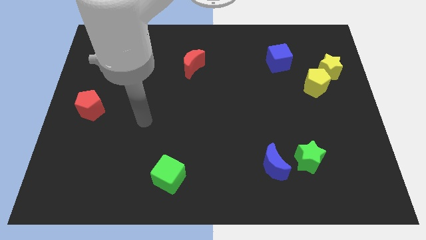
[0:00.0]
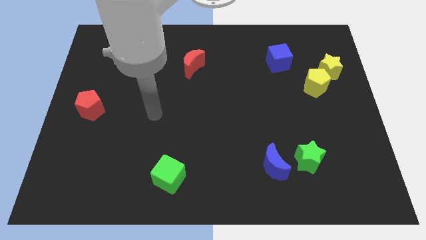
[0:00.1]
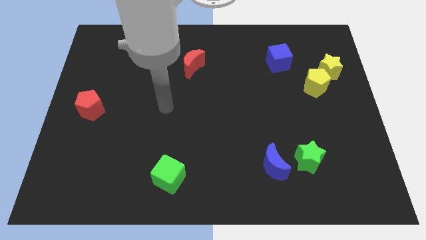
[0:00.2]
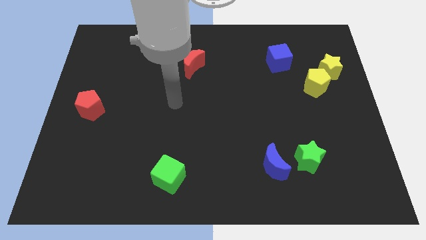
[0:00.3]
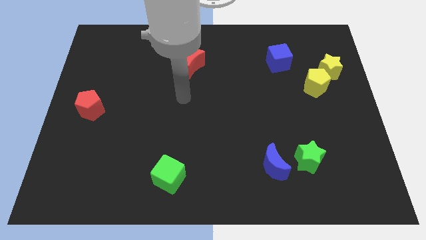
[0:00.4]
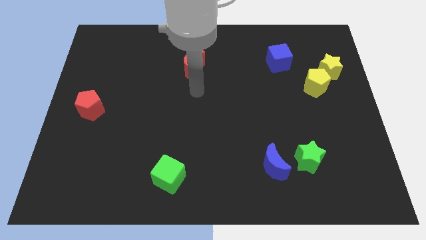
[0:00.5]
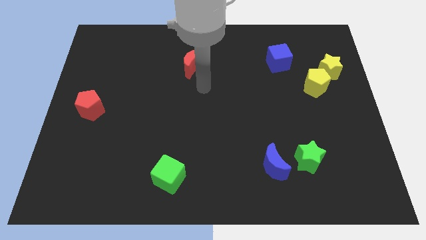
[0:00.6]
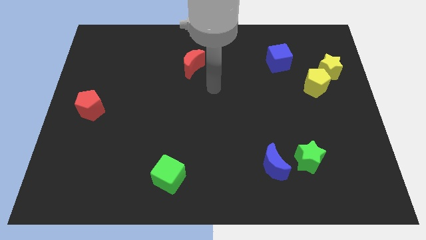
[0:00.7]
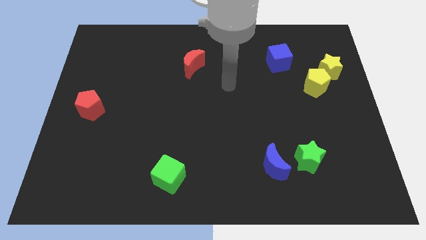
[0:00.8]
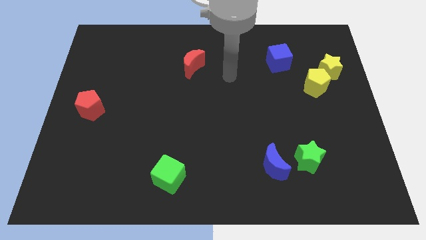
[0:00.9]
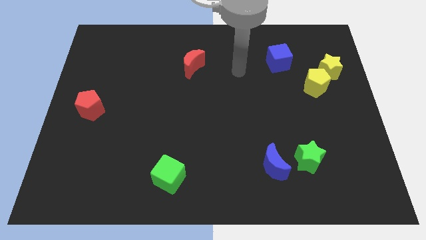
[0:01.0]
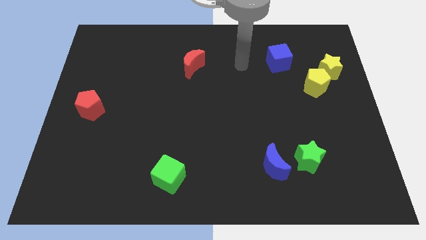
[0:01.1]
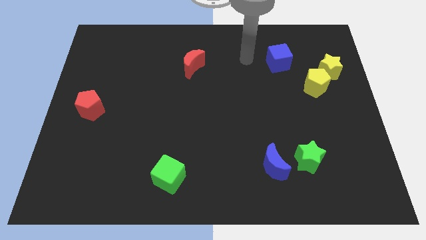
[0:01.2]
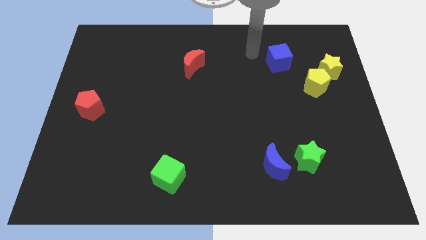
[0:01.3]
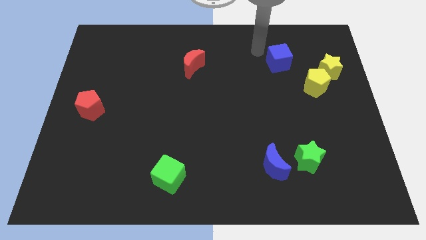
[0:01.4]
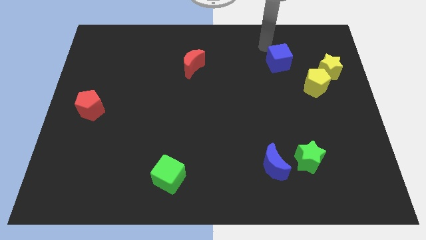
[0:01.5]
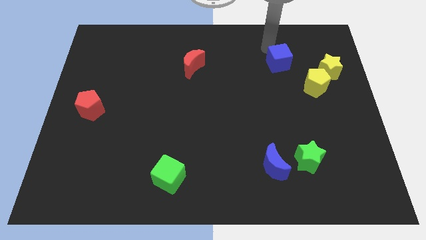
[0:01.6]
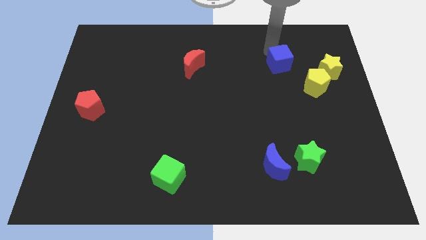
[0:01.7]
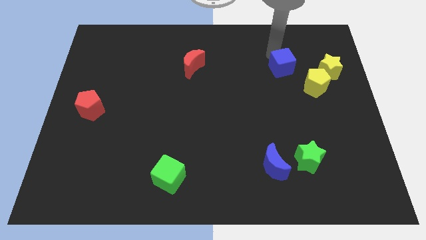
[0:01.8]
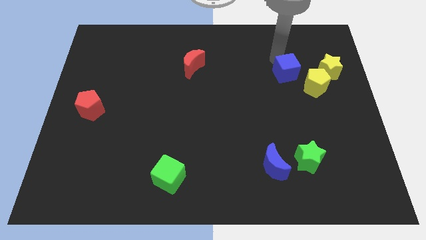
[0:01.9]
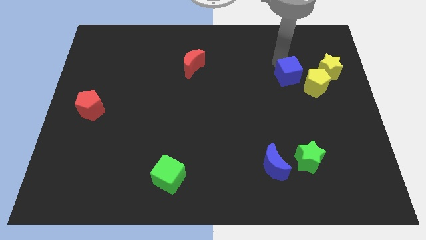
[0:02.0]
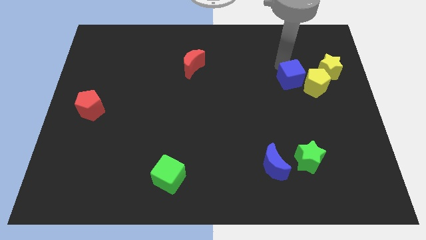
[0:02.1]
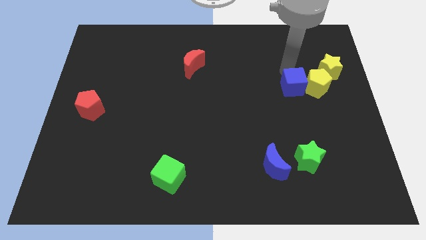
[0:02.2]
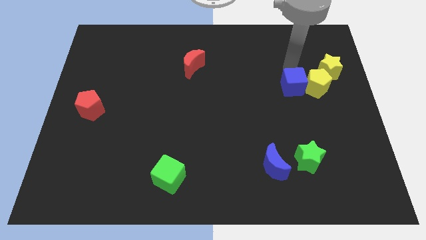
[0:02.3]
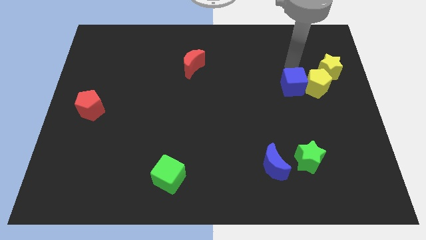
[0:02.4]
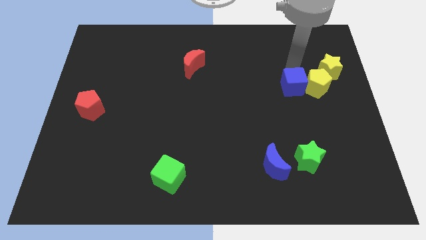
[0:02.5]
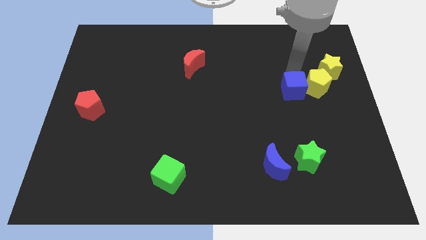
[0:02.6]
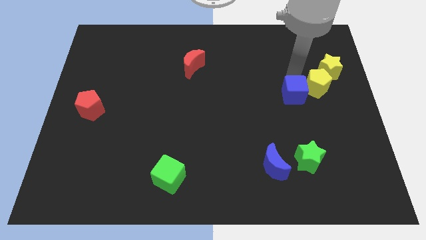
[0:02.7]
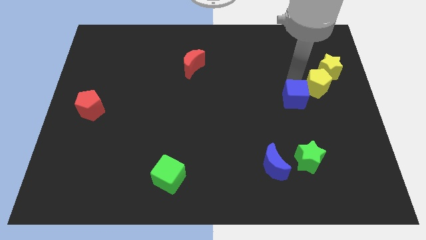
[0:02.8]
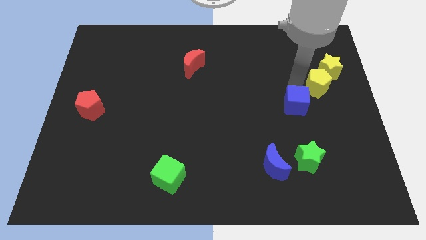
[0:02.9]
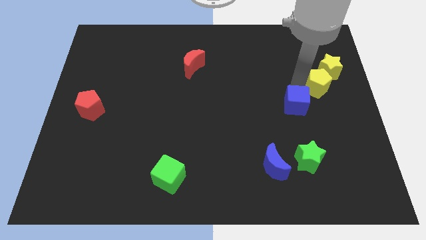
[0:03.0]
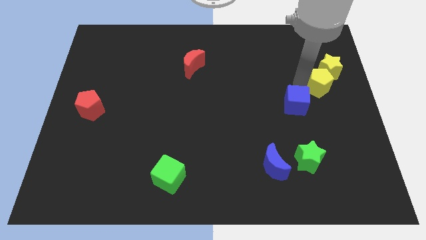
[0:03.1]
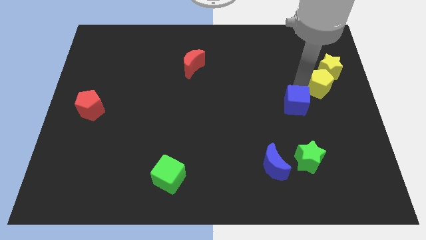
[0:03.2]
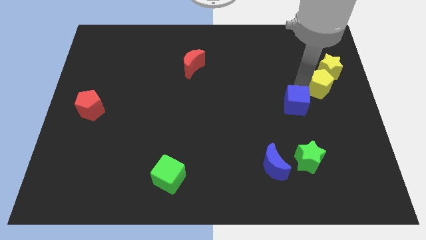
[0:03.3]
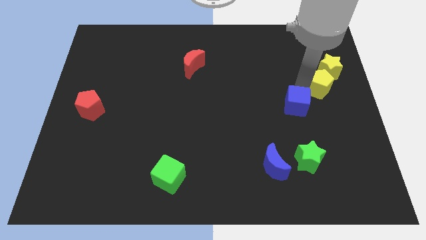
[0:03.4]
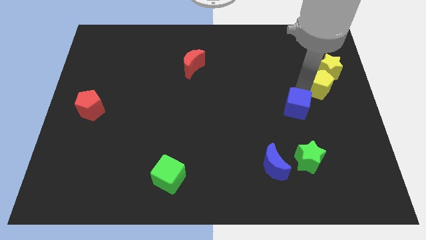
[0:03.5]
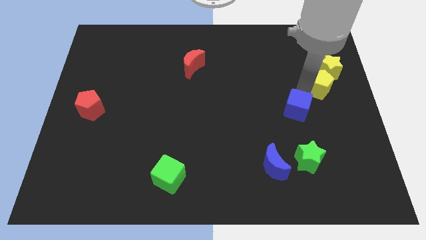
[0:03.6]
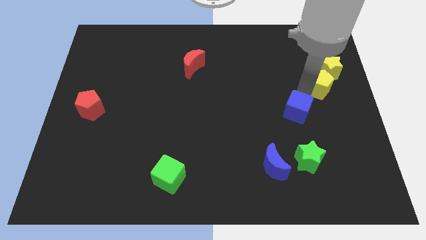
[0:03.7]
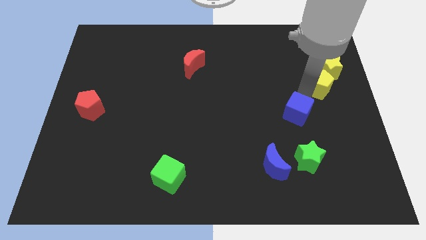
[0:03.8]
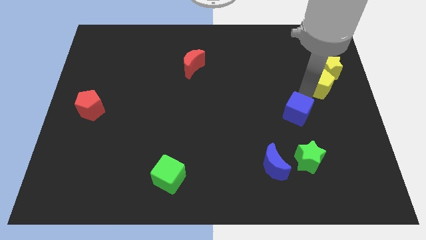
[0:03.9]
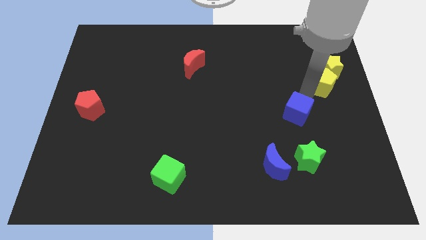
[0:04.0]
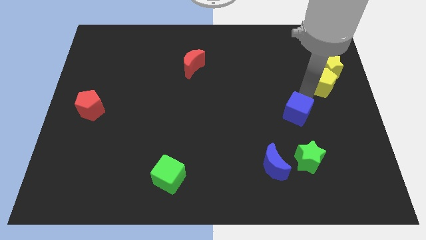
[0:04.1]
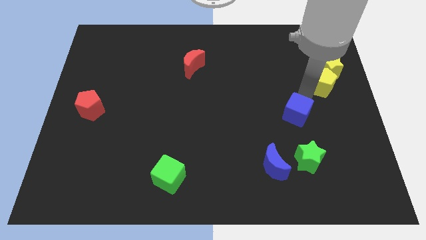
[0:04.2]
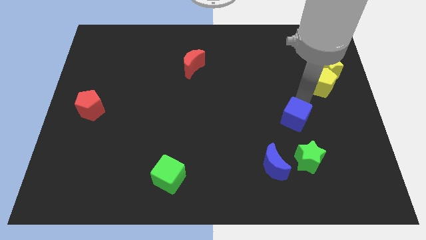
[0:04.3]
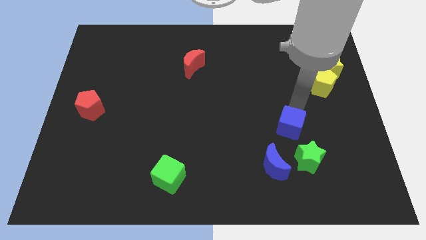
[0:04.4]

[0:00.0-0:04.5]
slide the blue cube downwards

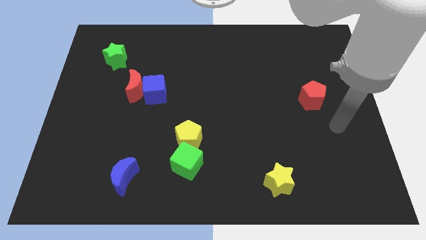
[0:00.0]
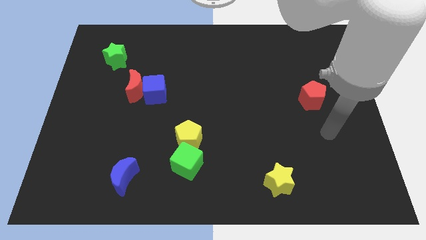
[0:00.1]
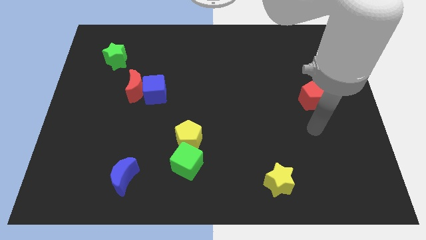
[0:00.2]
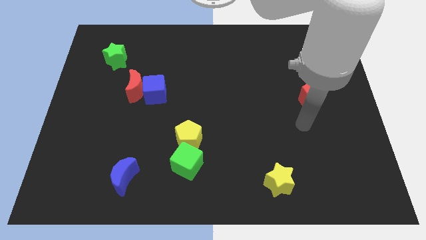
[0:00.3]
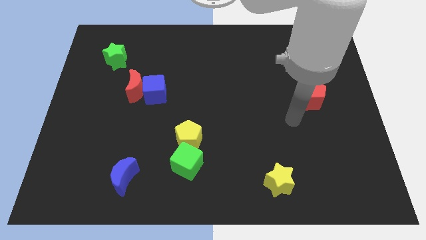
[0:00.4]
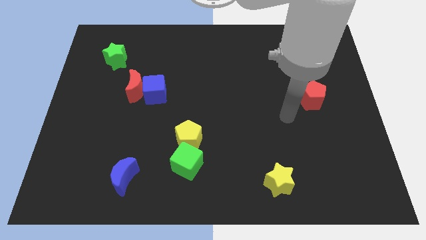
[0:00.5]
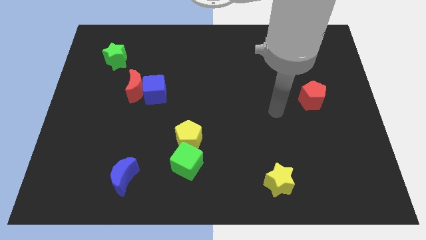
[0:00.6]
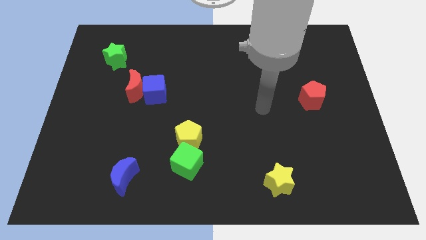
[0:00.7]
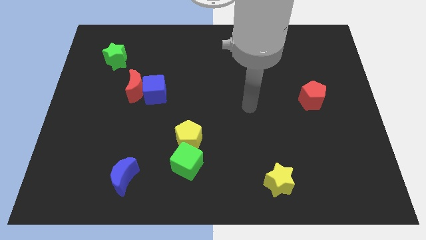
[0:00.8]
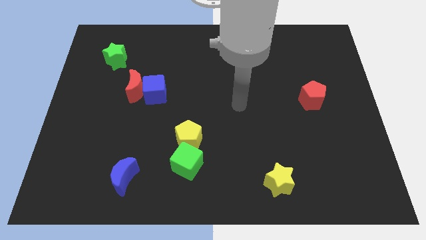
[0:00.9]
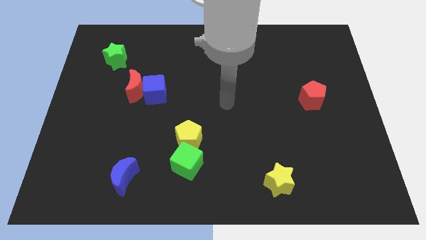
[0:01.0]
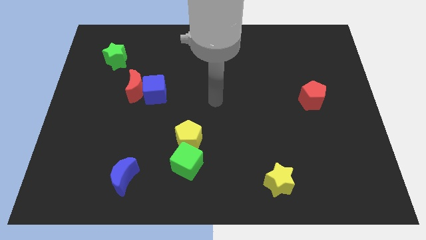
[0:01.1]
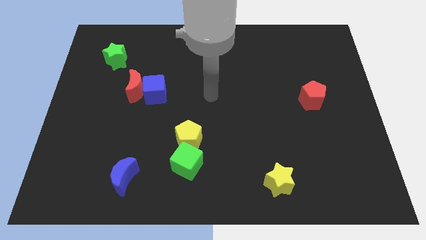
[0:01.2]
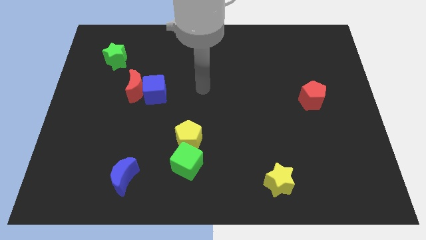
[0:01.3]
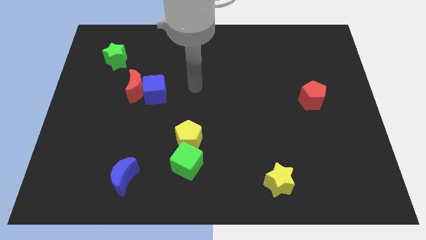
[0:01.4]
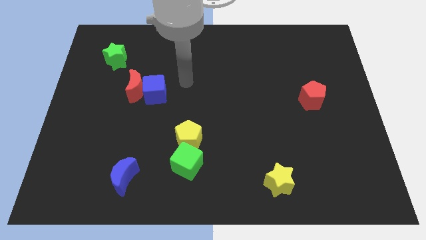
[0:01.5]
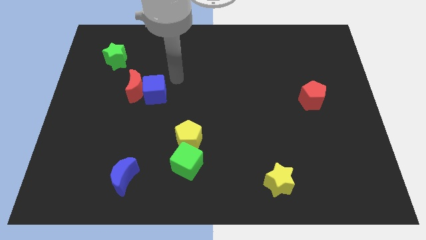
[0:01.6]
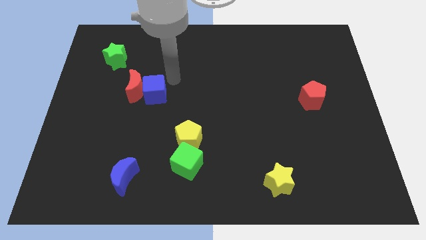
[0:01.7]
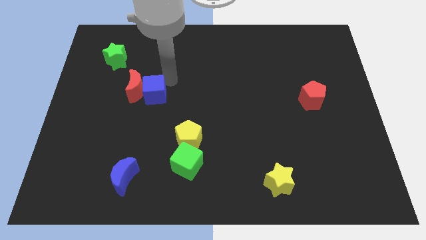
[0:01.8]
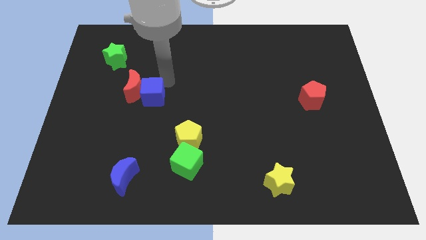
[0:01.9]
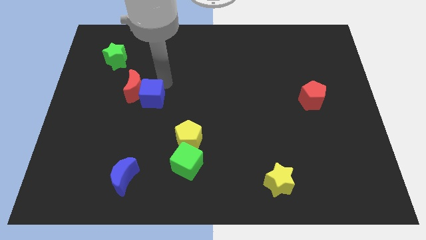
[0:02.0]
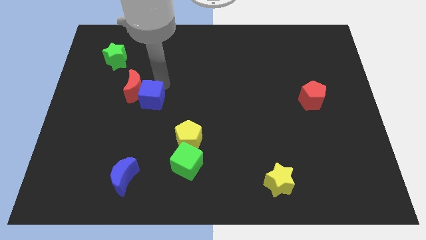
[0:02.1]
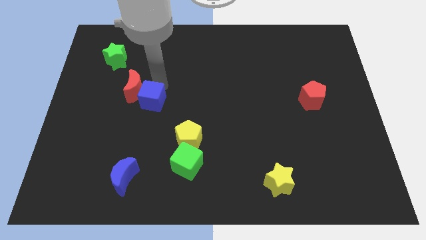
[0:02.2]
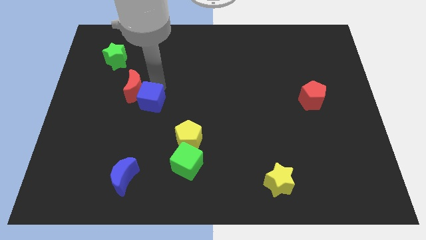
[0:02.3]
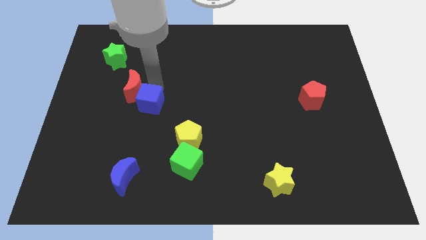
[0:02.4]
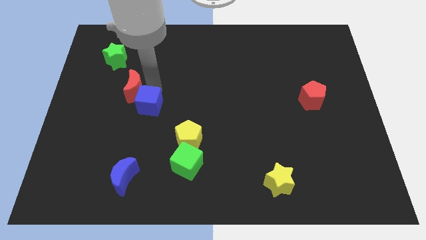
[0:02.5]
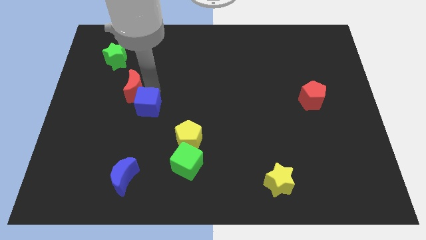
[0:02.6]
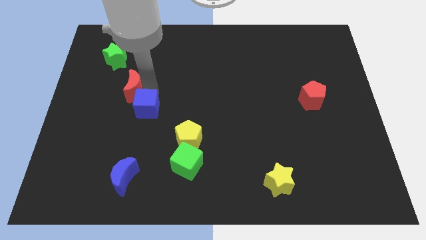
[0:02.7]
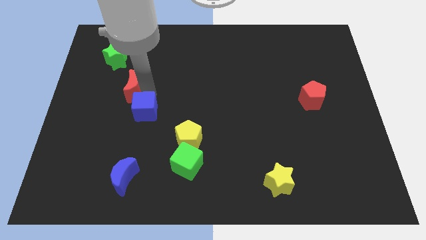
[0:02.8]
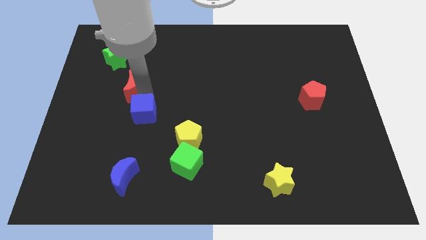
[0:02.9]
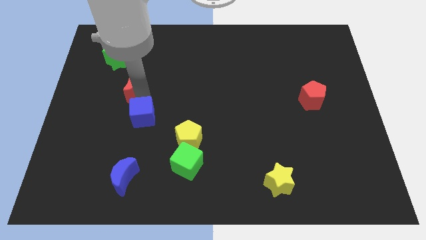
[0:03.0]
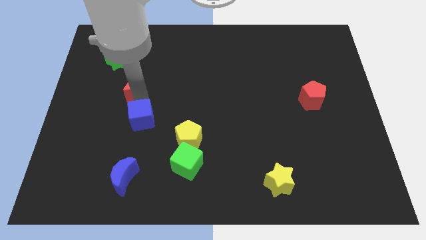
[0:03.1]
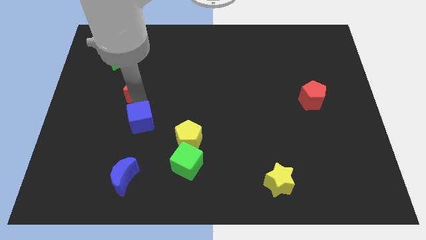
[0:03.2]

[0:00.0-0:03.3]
slide the blue cube a little downwards and then left
